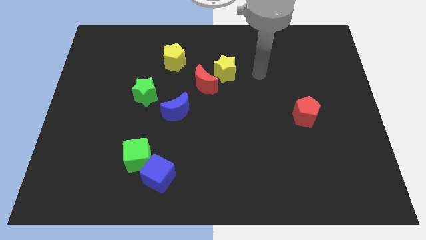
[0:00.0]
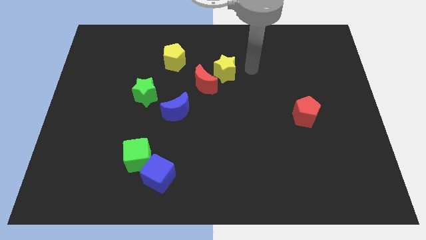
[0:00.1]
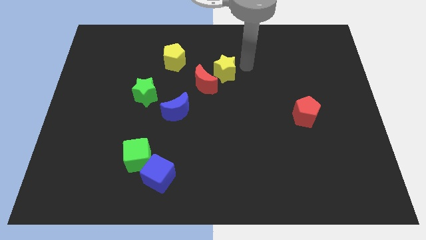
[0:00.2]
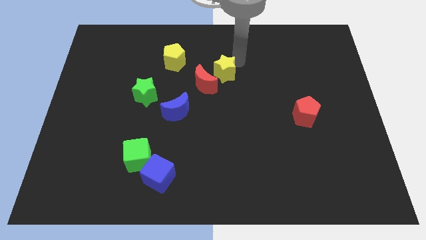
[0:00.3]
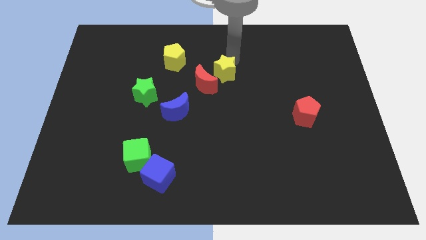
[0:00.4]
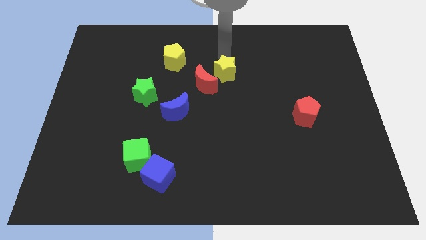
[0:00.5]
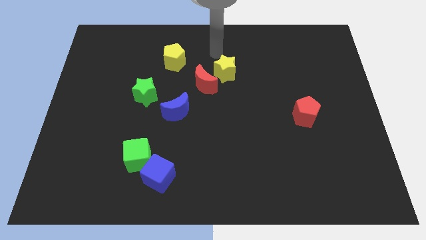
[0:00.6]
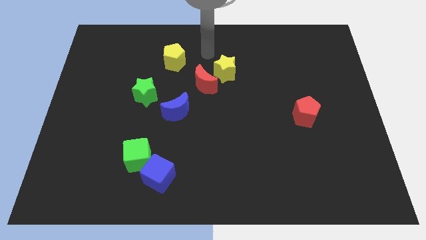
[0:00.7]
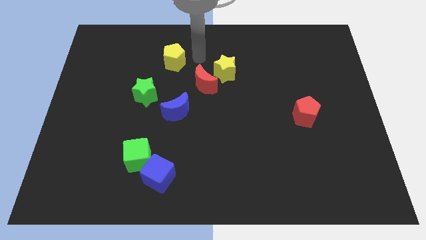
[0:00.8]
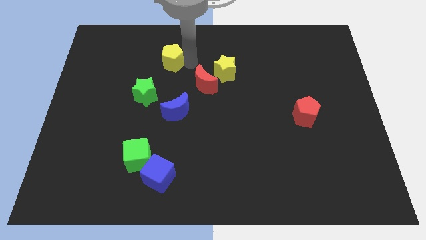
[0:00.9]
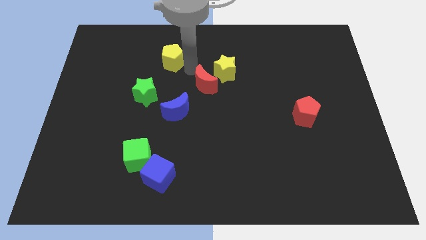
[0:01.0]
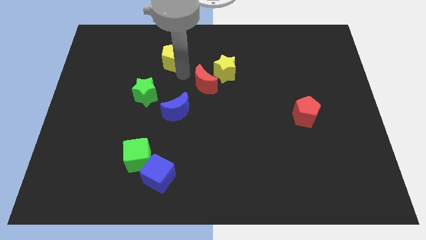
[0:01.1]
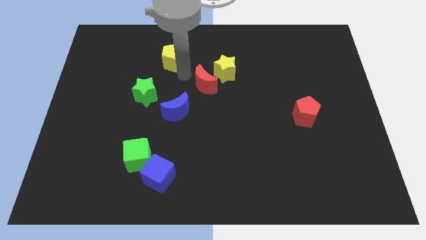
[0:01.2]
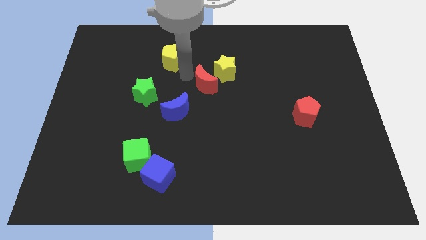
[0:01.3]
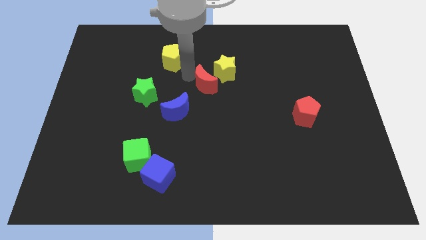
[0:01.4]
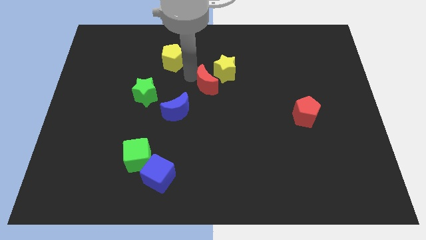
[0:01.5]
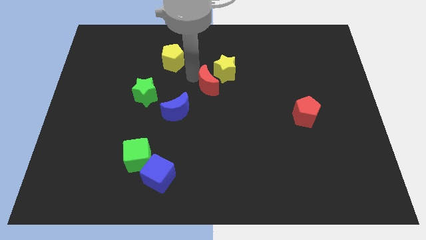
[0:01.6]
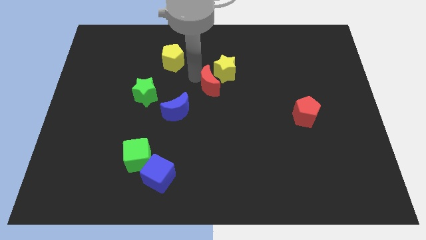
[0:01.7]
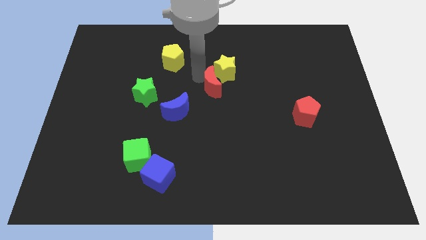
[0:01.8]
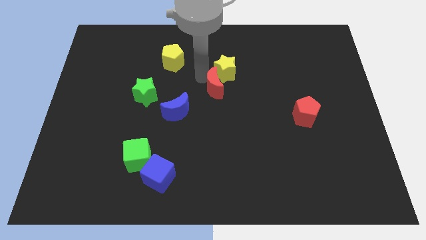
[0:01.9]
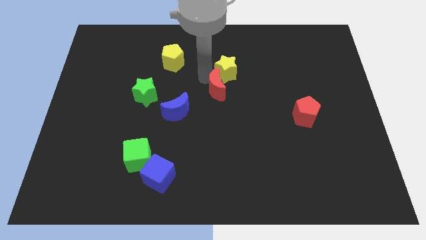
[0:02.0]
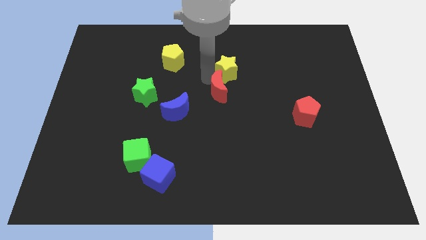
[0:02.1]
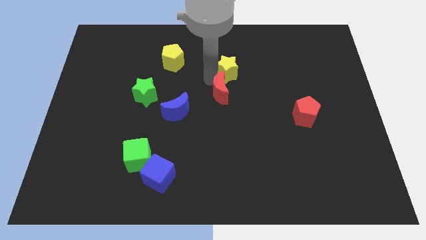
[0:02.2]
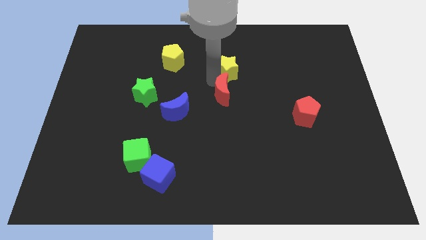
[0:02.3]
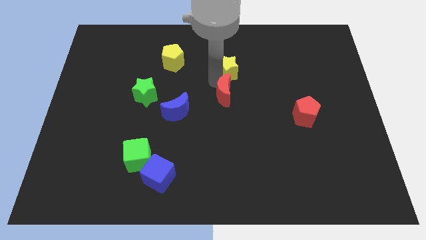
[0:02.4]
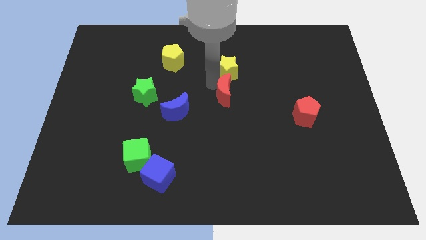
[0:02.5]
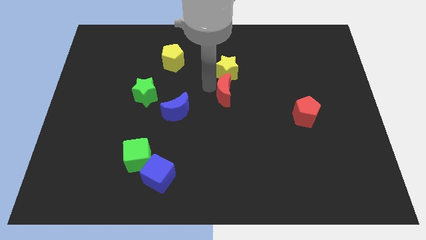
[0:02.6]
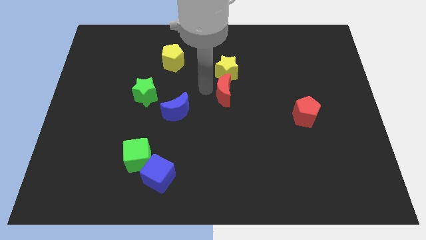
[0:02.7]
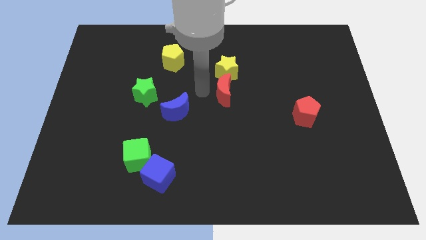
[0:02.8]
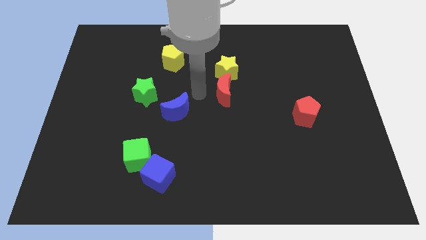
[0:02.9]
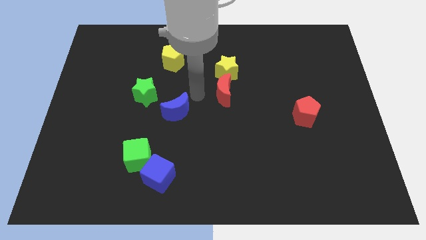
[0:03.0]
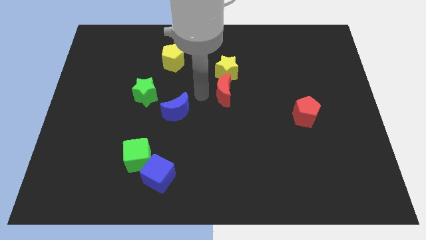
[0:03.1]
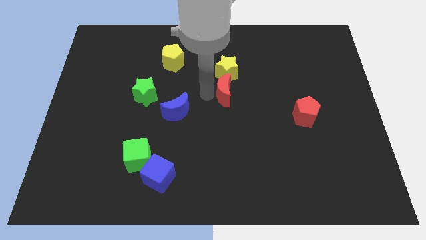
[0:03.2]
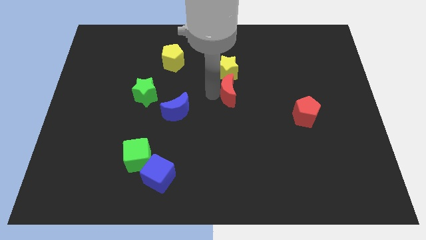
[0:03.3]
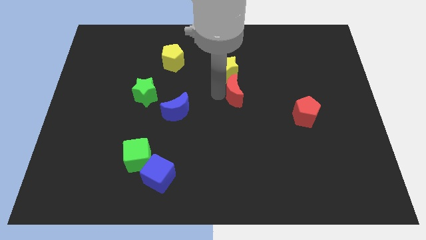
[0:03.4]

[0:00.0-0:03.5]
move the red moon somewhat to the right

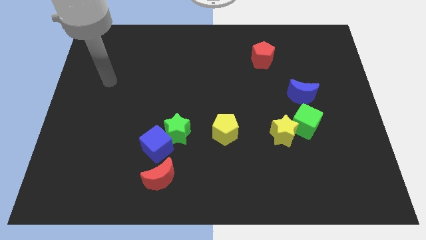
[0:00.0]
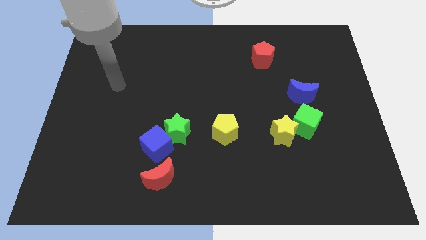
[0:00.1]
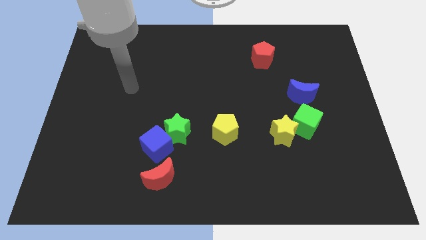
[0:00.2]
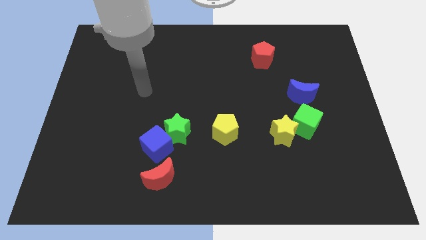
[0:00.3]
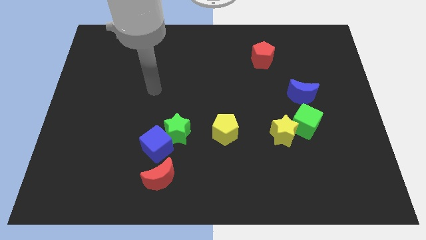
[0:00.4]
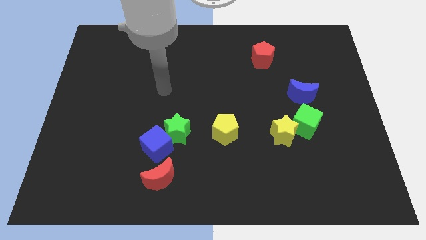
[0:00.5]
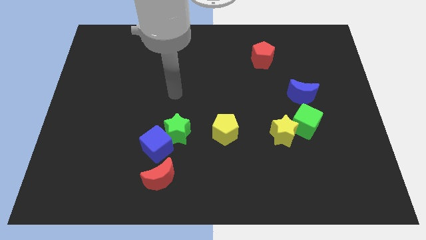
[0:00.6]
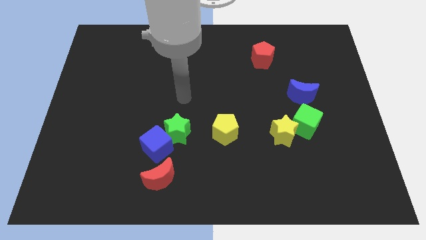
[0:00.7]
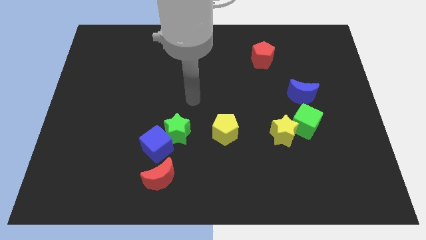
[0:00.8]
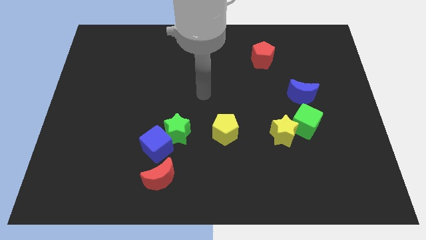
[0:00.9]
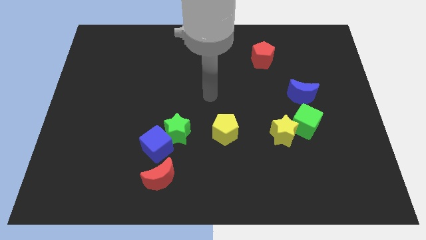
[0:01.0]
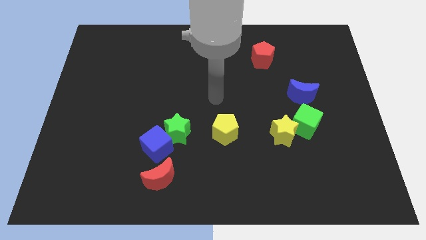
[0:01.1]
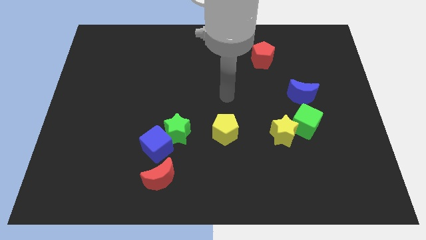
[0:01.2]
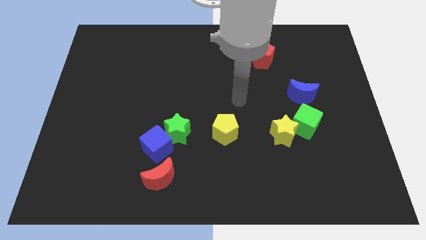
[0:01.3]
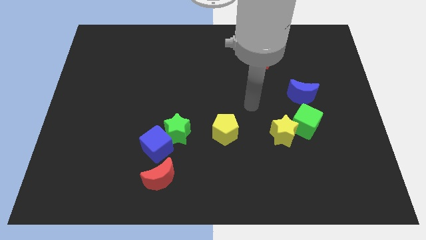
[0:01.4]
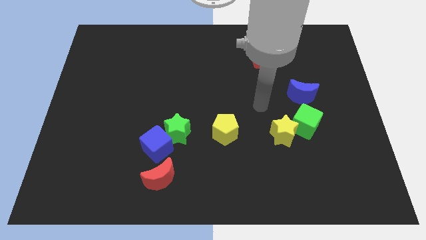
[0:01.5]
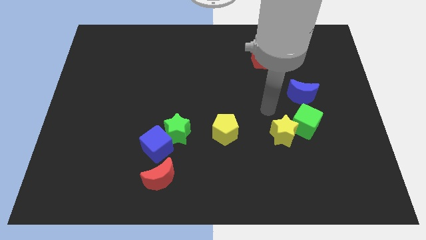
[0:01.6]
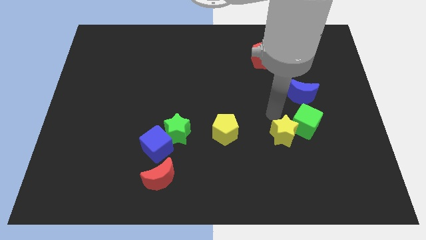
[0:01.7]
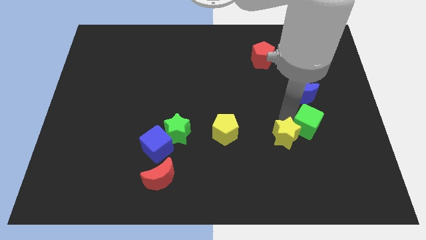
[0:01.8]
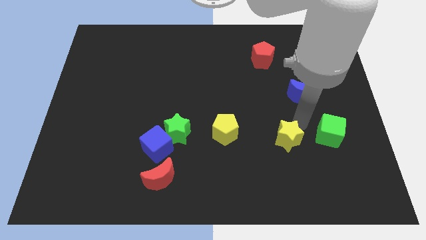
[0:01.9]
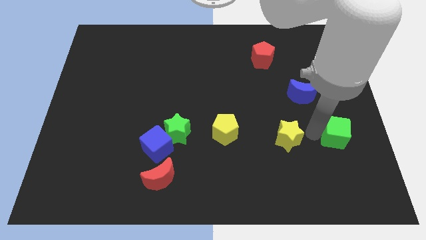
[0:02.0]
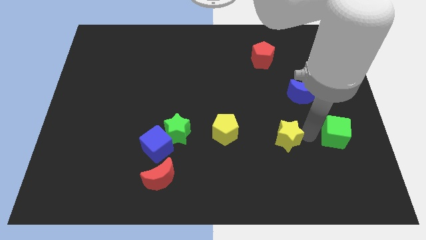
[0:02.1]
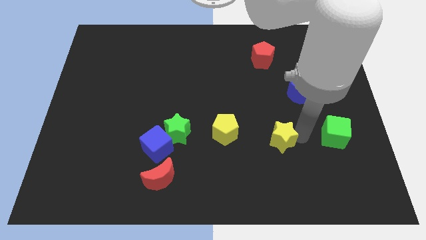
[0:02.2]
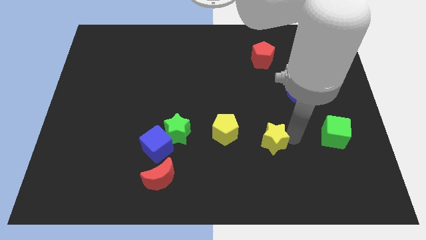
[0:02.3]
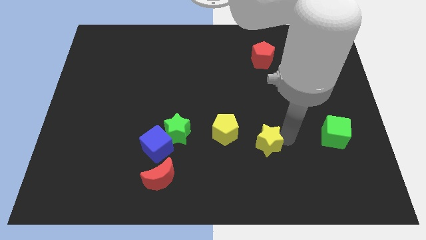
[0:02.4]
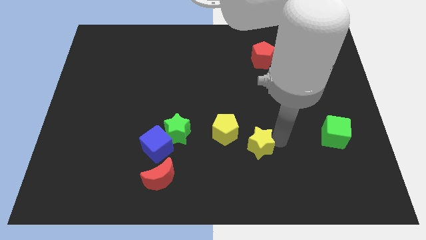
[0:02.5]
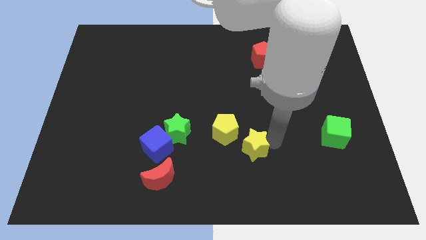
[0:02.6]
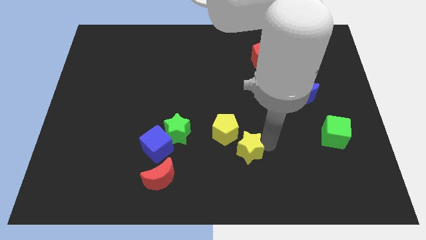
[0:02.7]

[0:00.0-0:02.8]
move the yellow star a little left

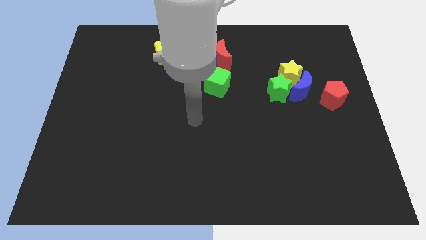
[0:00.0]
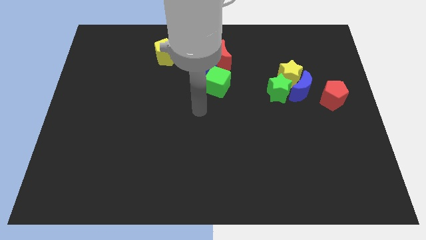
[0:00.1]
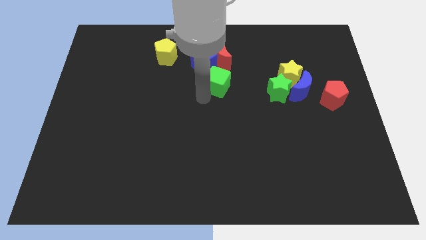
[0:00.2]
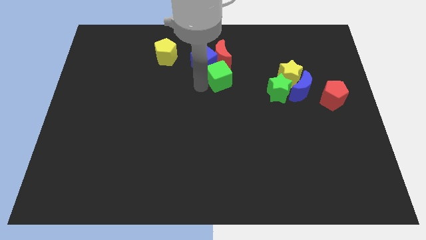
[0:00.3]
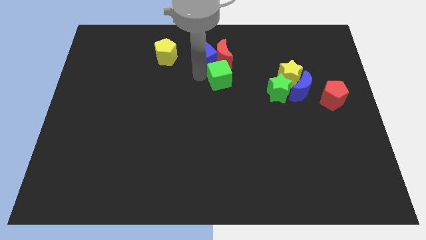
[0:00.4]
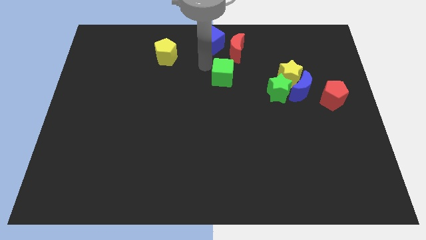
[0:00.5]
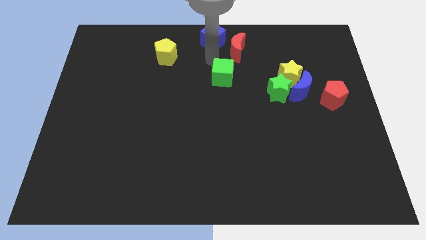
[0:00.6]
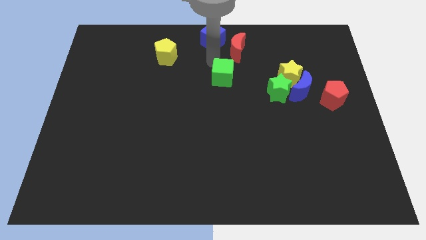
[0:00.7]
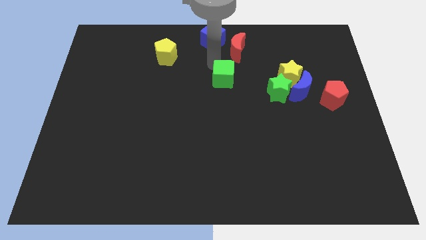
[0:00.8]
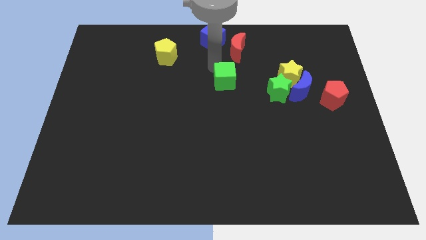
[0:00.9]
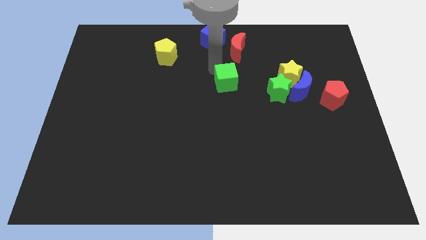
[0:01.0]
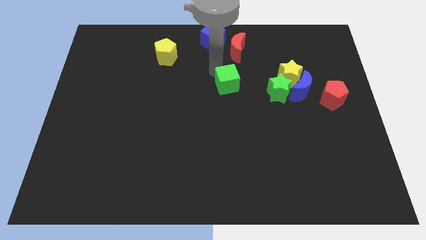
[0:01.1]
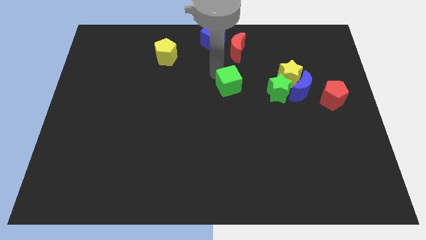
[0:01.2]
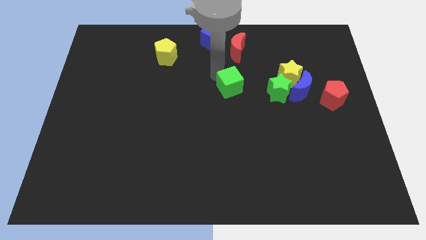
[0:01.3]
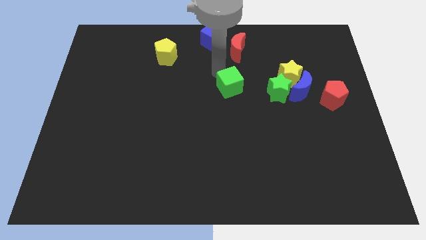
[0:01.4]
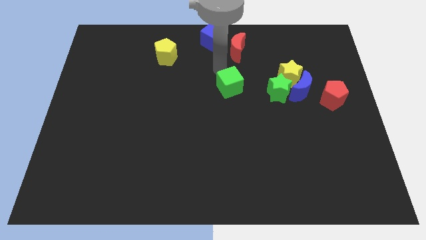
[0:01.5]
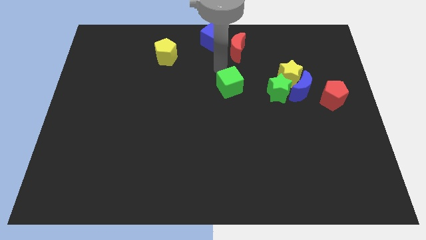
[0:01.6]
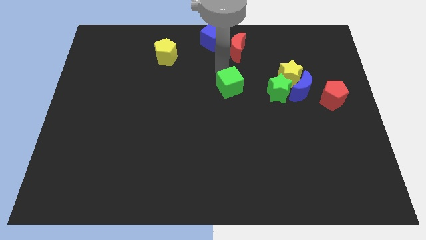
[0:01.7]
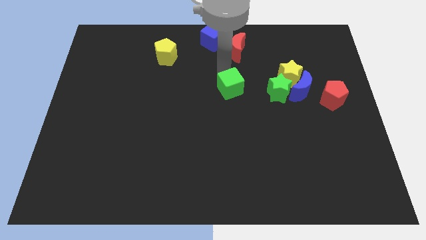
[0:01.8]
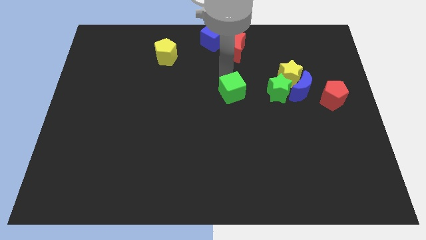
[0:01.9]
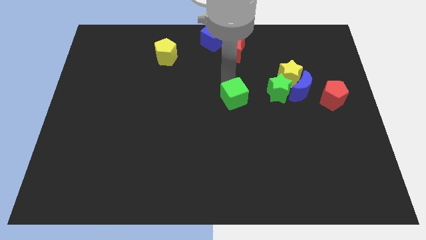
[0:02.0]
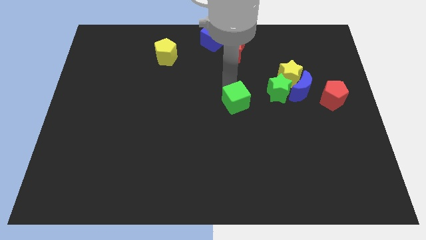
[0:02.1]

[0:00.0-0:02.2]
push the green cube a little bit down and right
